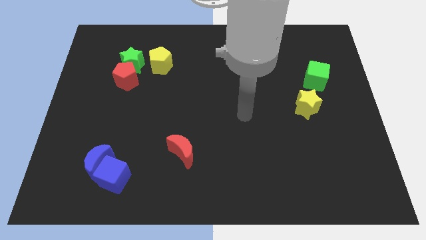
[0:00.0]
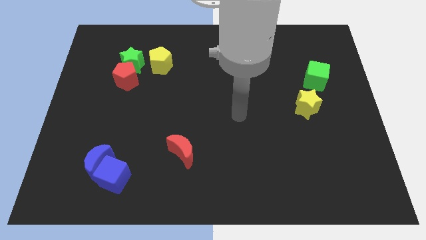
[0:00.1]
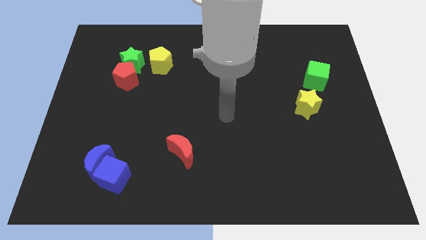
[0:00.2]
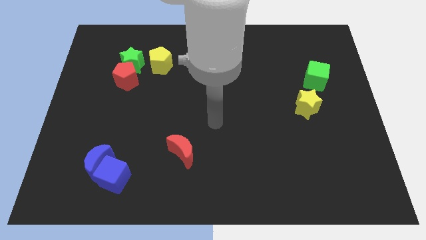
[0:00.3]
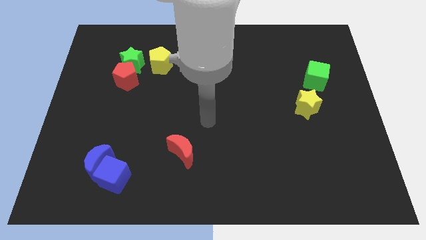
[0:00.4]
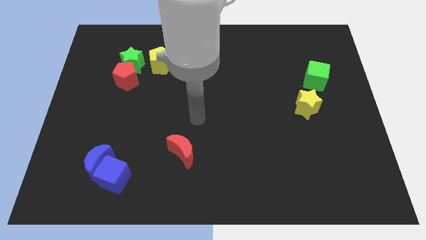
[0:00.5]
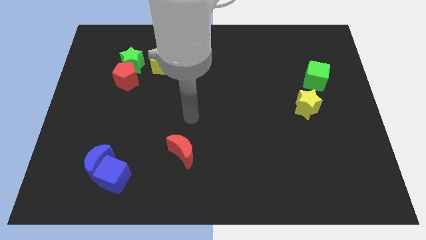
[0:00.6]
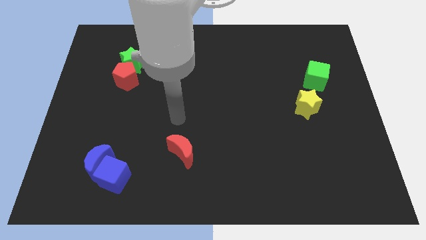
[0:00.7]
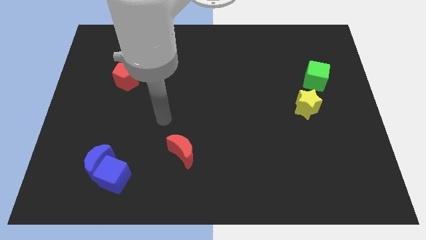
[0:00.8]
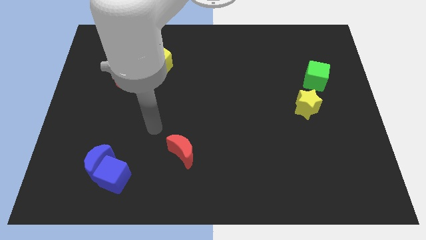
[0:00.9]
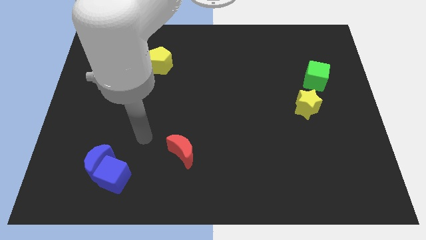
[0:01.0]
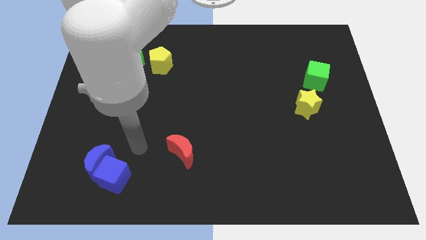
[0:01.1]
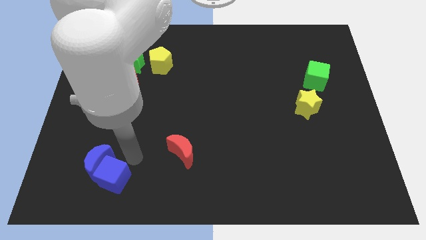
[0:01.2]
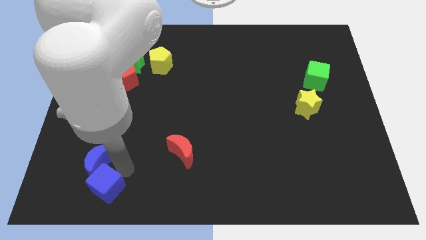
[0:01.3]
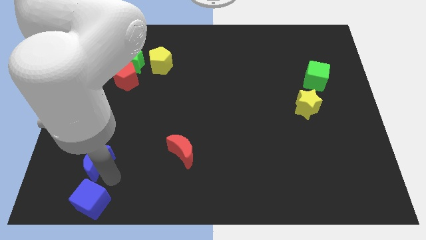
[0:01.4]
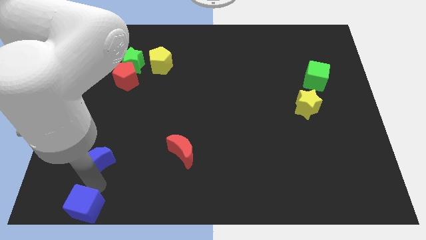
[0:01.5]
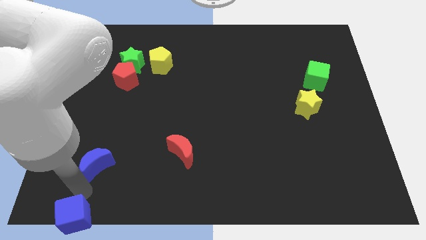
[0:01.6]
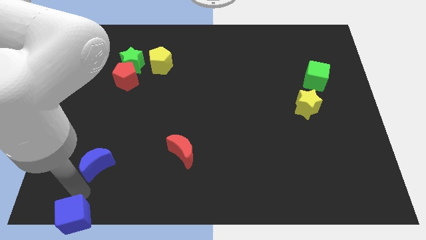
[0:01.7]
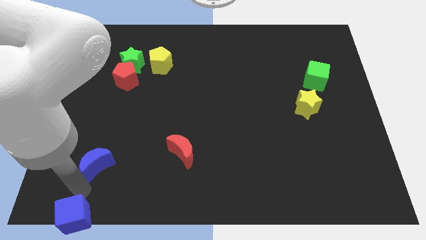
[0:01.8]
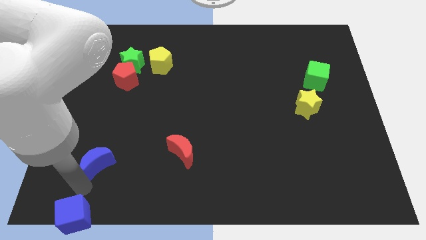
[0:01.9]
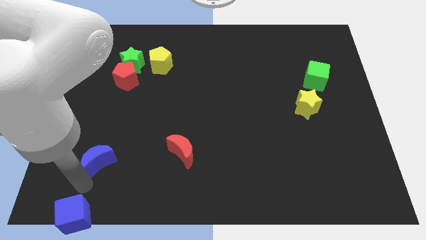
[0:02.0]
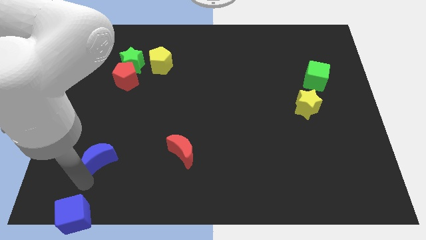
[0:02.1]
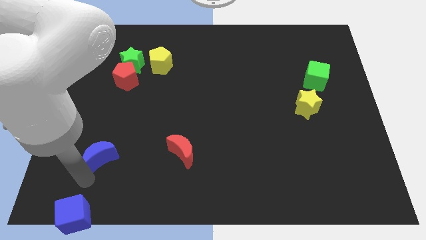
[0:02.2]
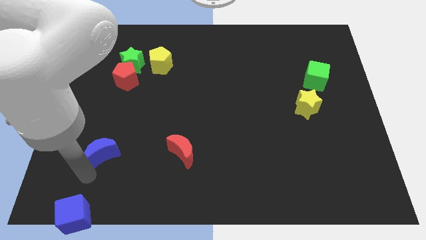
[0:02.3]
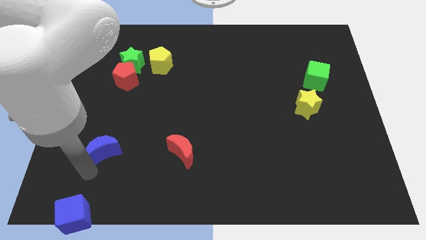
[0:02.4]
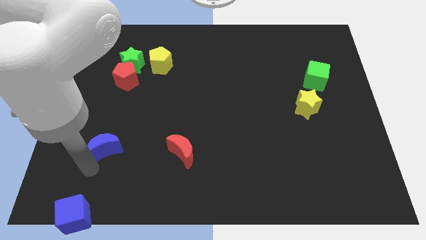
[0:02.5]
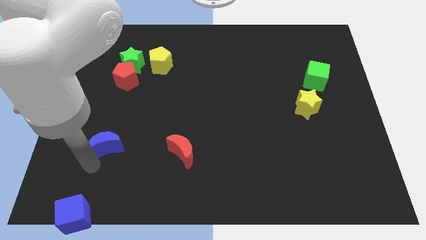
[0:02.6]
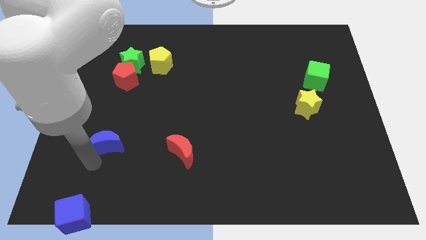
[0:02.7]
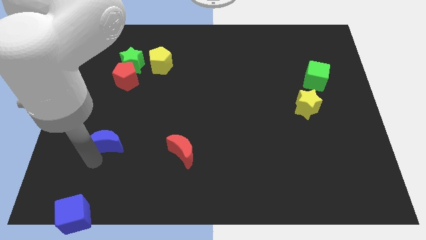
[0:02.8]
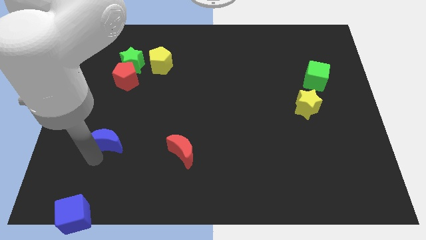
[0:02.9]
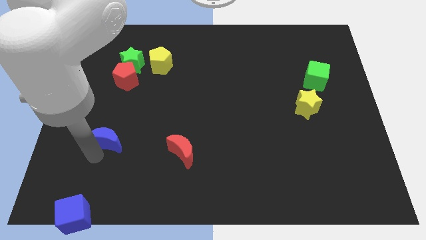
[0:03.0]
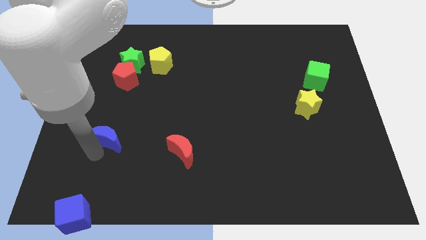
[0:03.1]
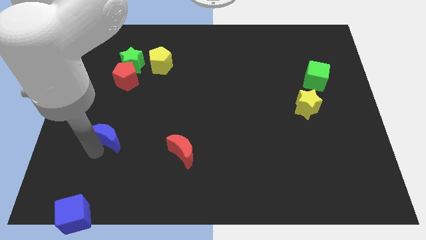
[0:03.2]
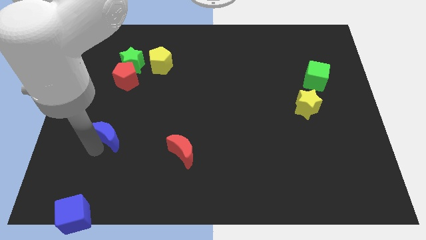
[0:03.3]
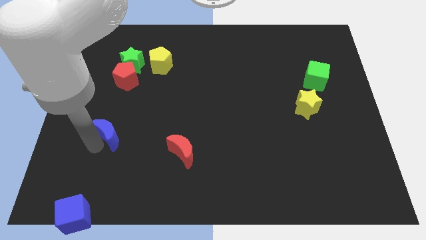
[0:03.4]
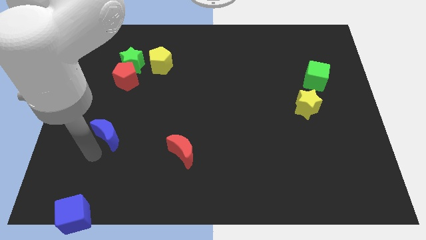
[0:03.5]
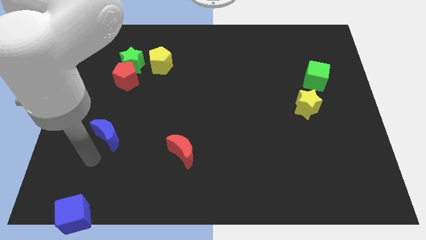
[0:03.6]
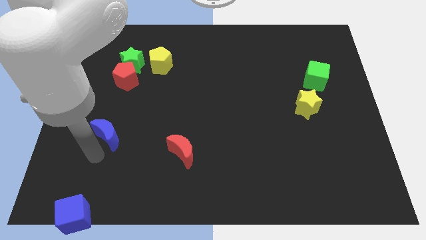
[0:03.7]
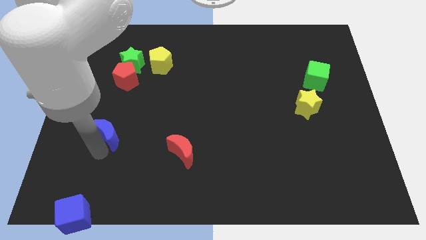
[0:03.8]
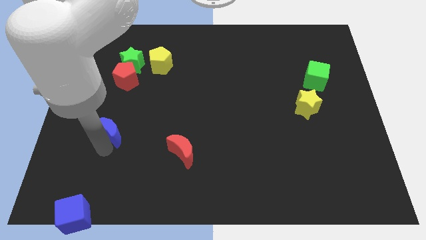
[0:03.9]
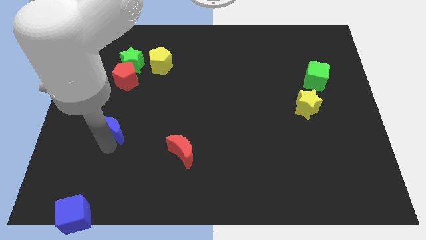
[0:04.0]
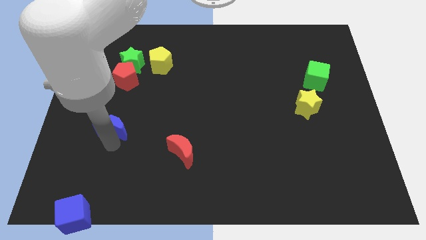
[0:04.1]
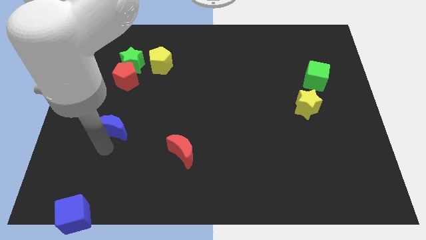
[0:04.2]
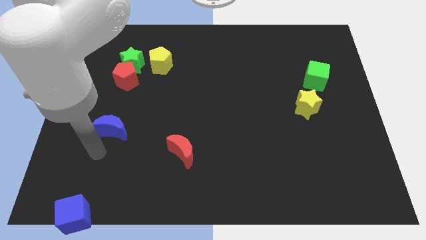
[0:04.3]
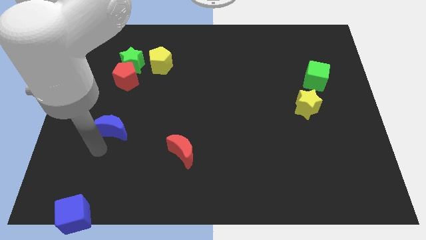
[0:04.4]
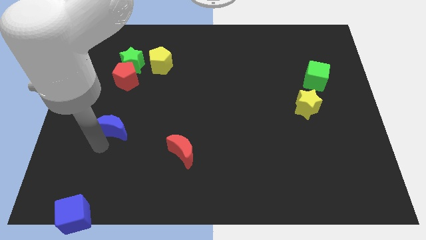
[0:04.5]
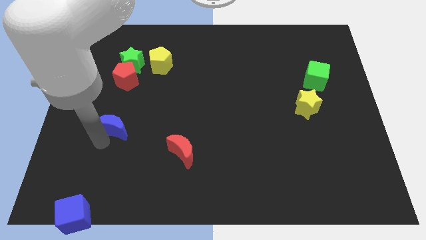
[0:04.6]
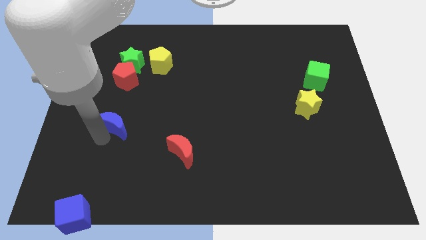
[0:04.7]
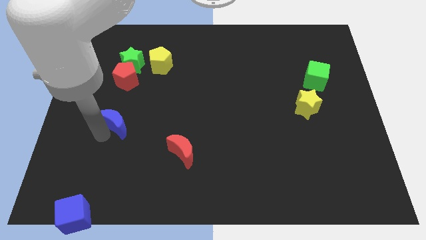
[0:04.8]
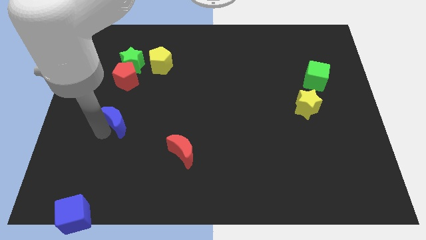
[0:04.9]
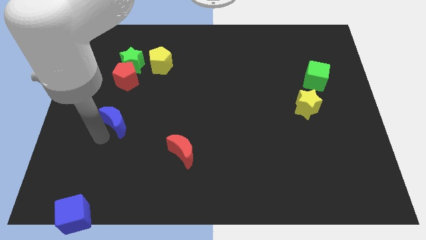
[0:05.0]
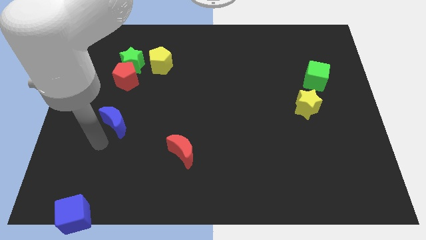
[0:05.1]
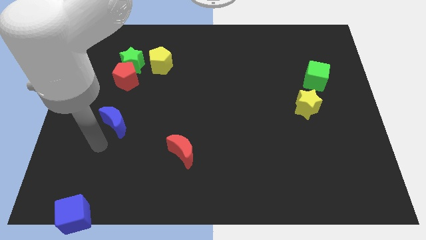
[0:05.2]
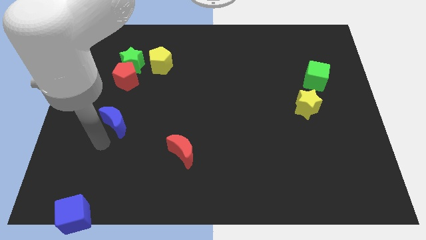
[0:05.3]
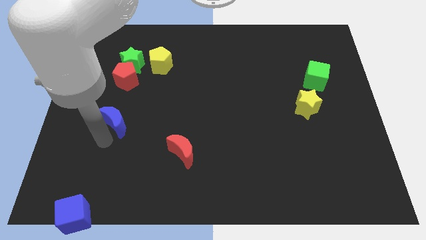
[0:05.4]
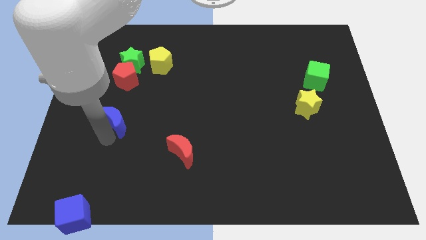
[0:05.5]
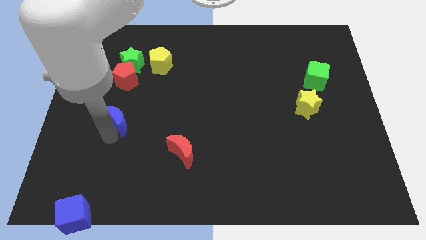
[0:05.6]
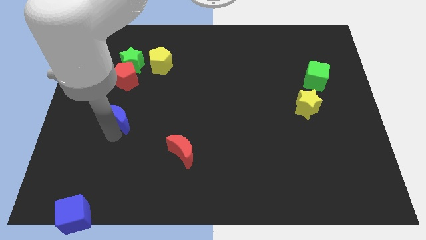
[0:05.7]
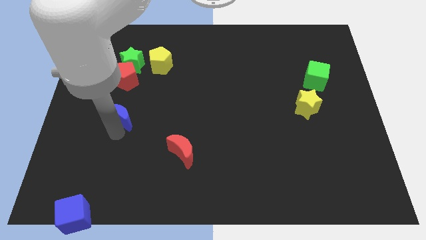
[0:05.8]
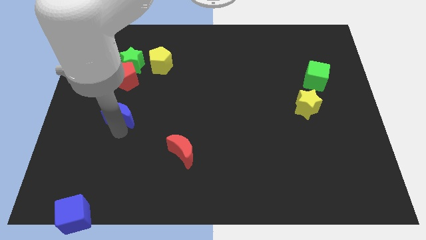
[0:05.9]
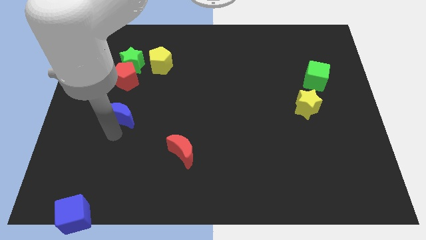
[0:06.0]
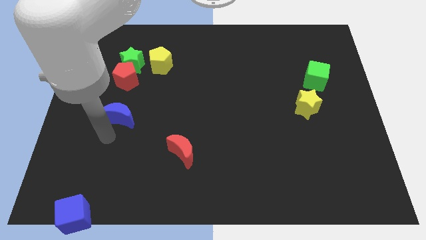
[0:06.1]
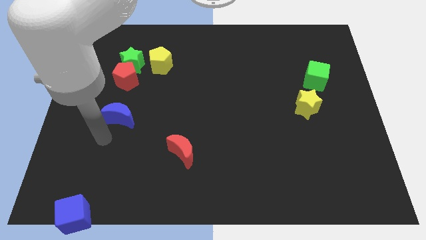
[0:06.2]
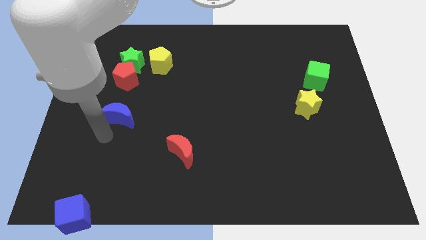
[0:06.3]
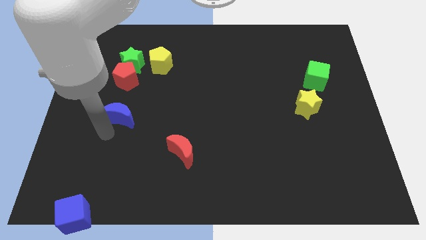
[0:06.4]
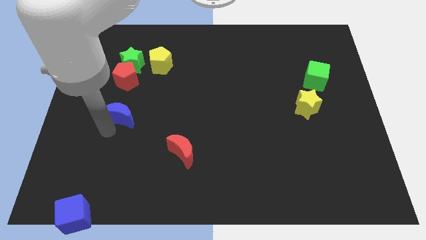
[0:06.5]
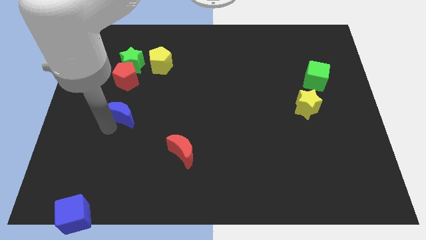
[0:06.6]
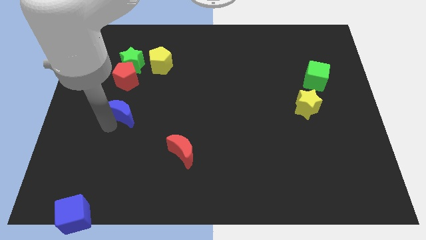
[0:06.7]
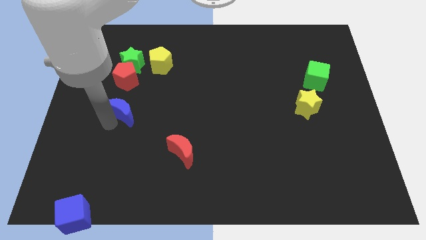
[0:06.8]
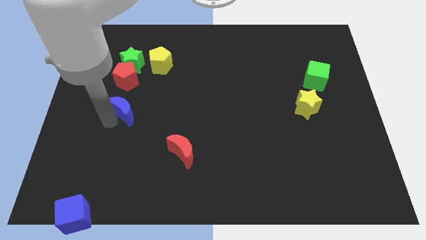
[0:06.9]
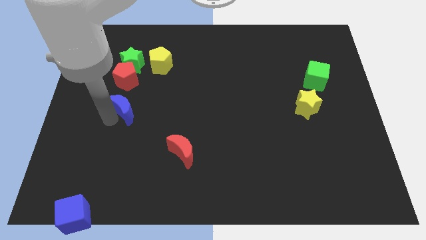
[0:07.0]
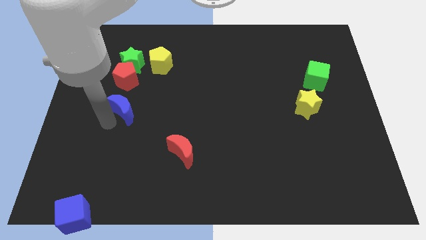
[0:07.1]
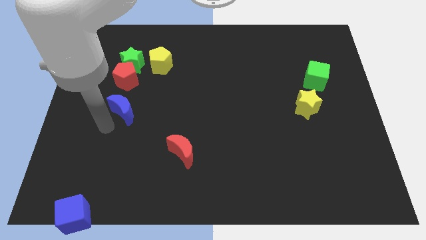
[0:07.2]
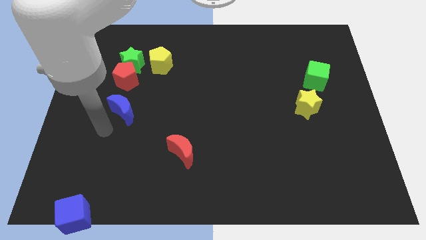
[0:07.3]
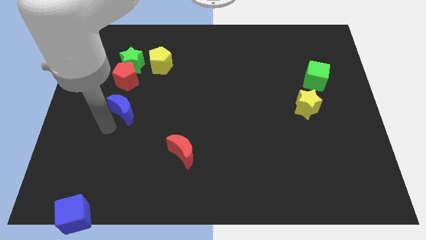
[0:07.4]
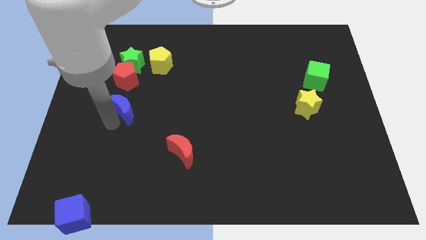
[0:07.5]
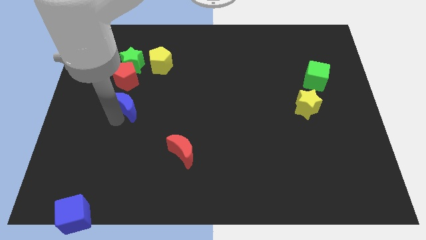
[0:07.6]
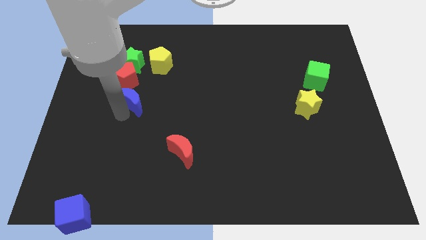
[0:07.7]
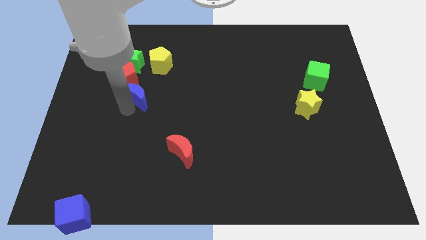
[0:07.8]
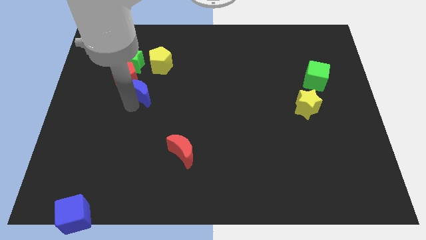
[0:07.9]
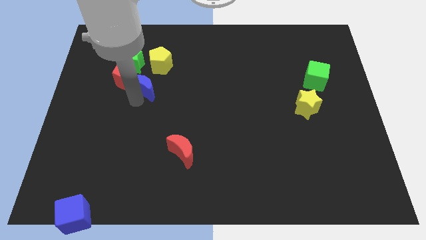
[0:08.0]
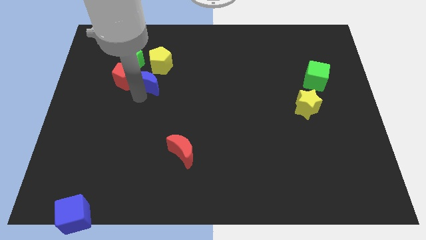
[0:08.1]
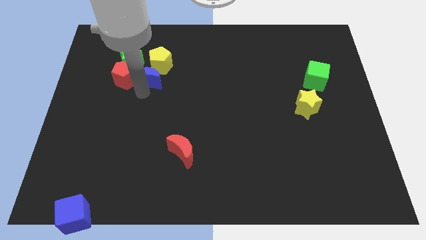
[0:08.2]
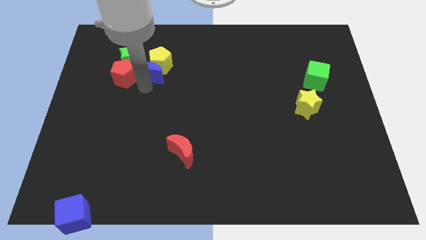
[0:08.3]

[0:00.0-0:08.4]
slide the blue moon to the yellow pentagon
